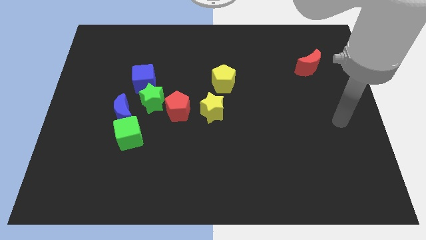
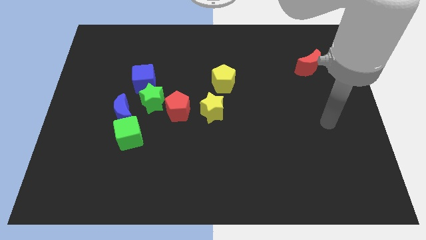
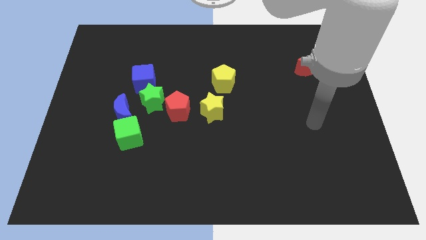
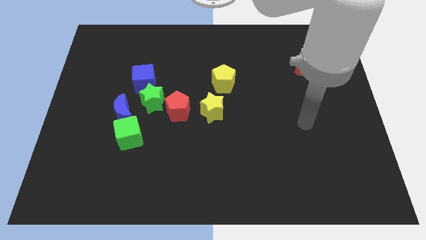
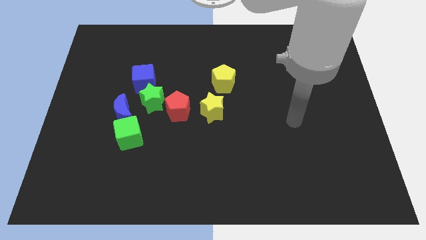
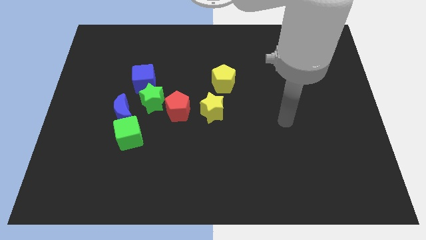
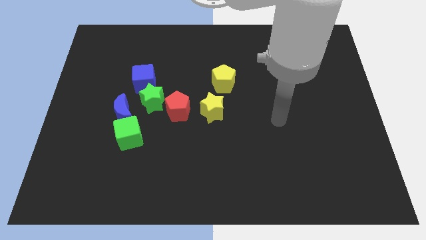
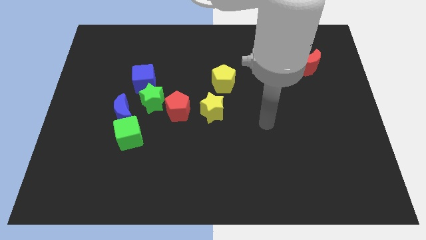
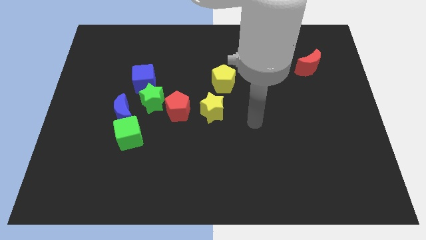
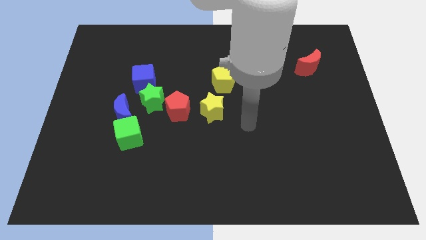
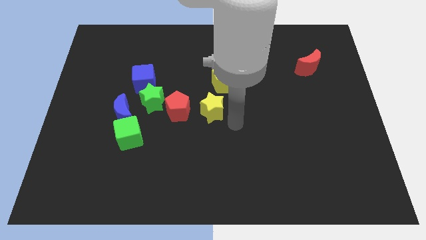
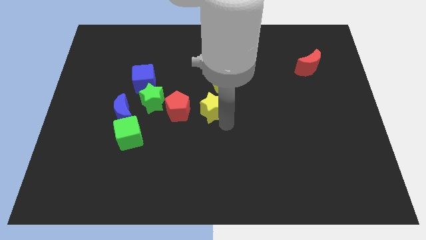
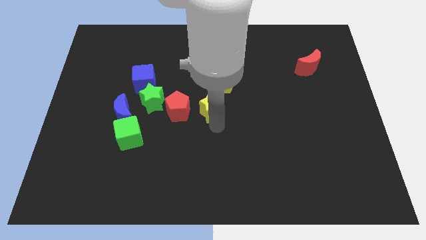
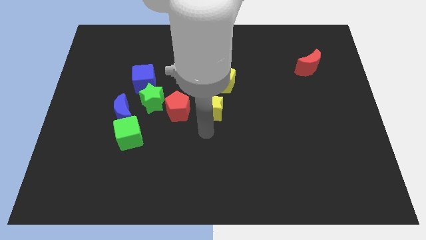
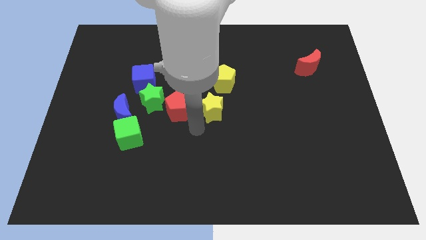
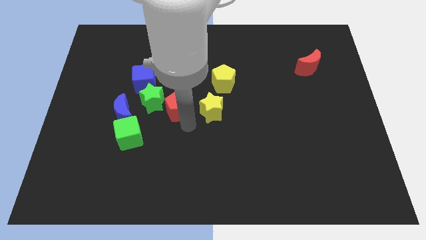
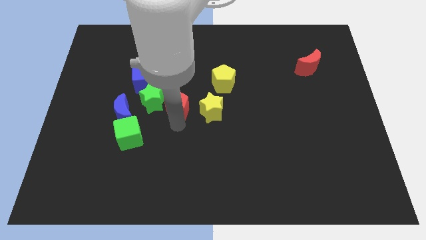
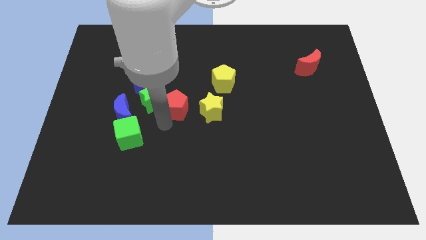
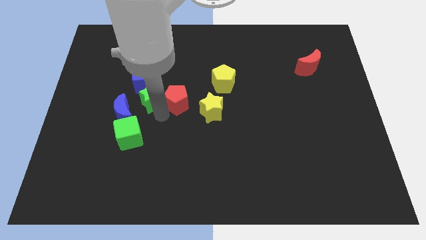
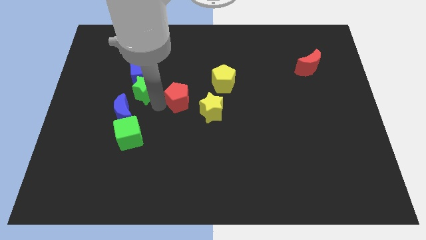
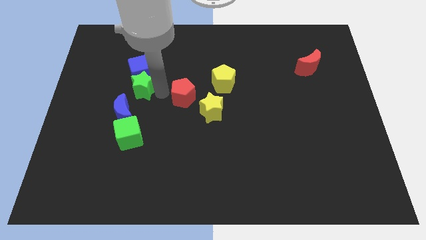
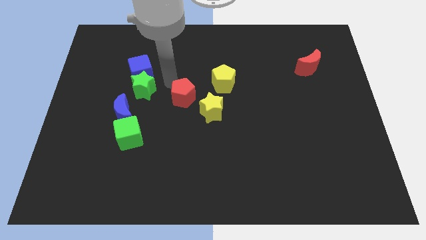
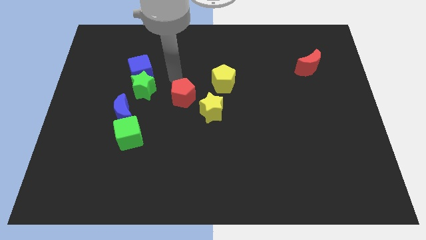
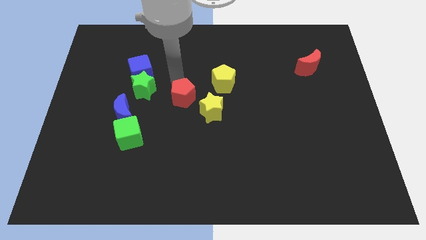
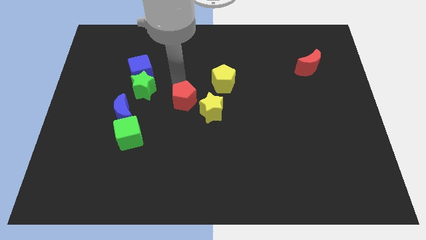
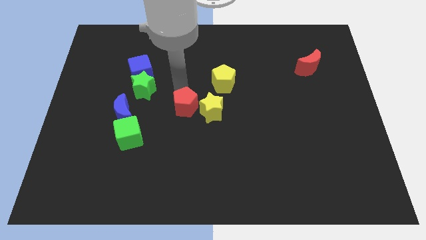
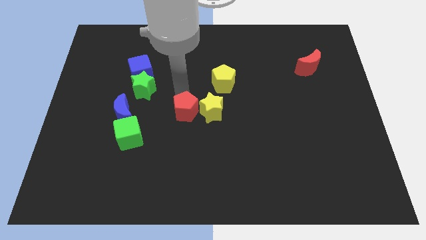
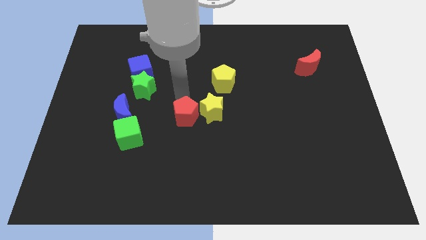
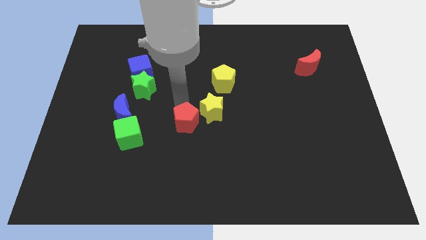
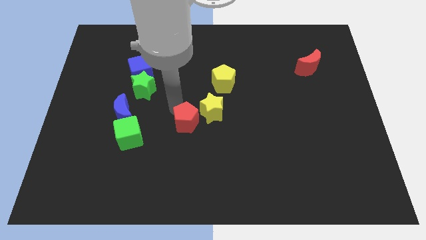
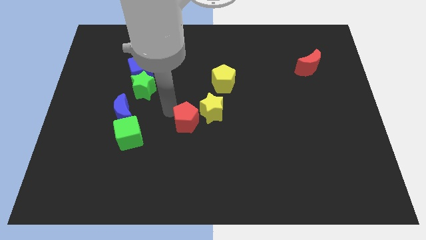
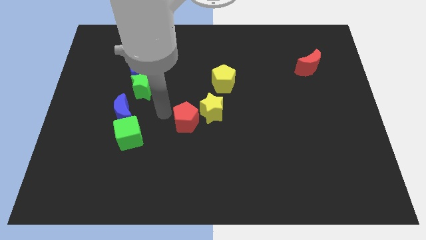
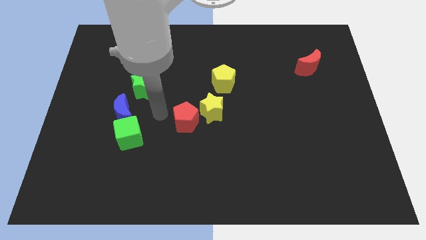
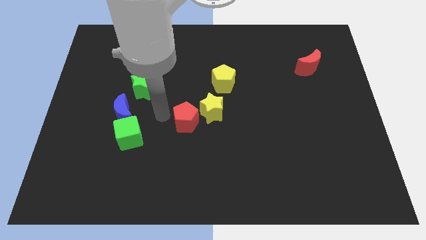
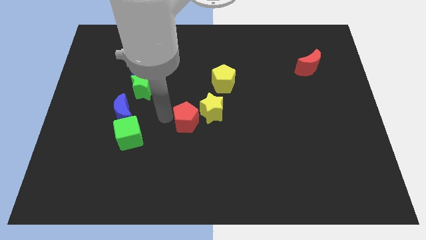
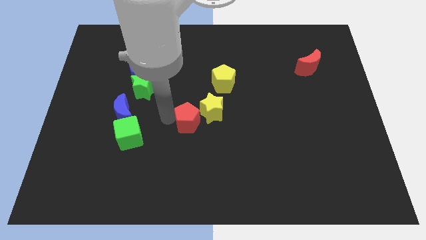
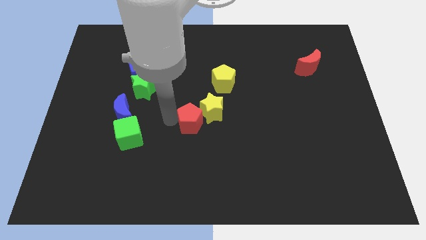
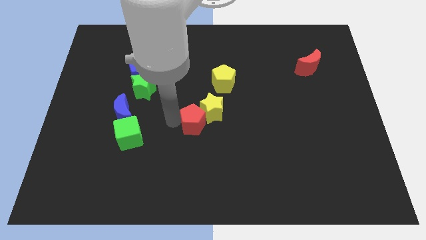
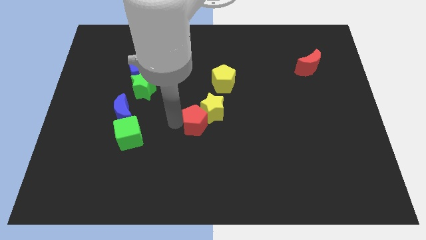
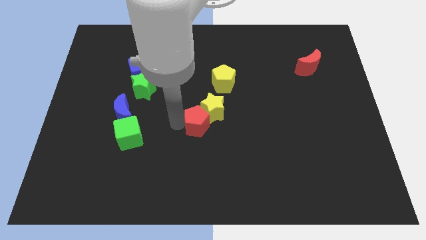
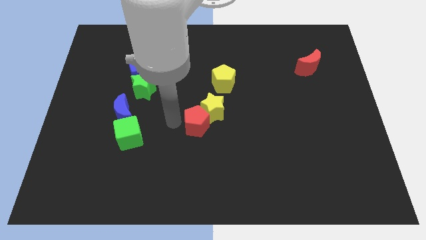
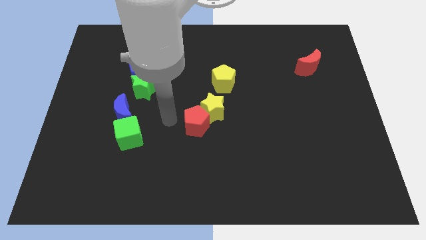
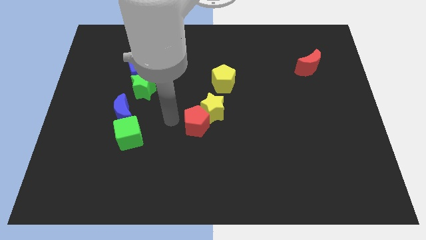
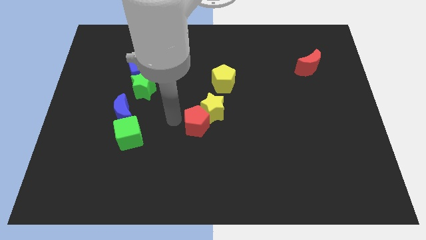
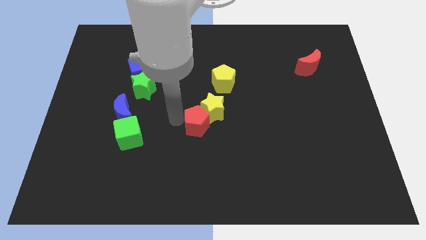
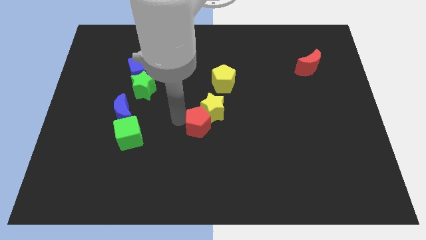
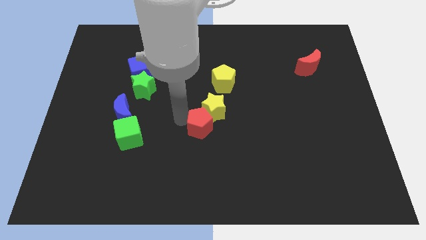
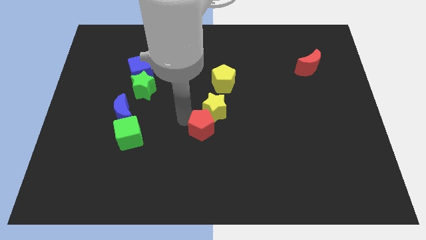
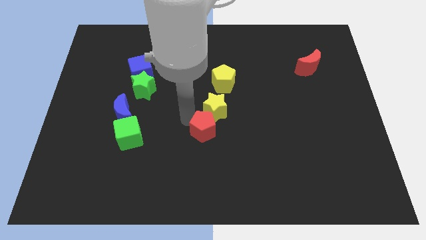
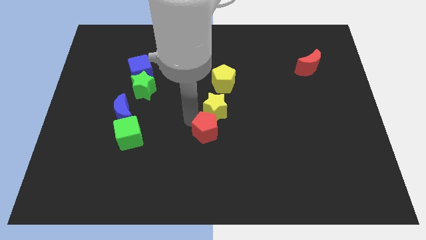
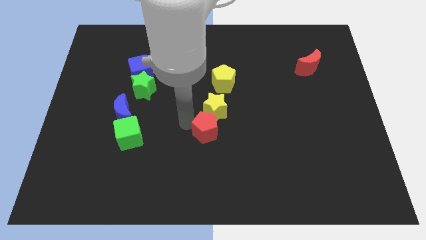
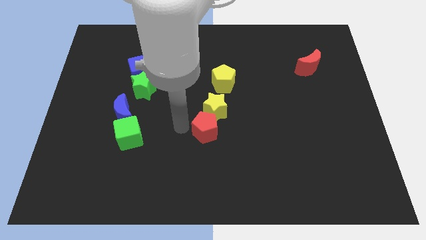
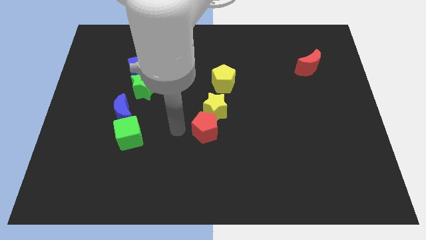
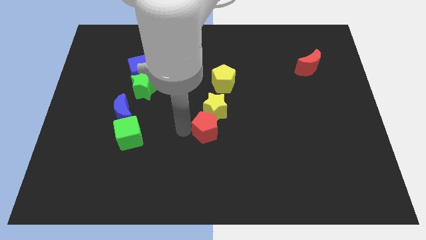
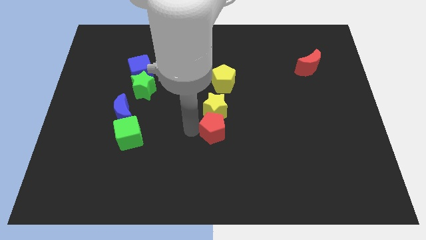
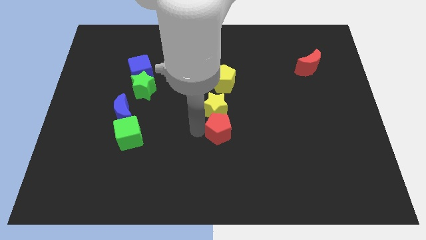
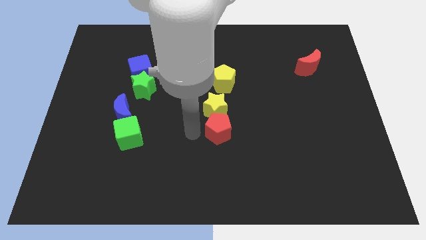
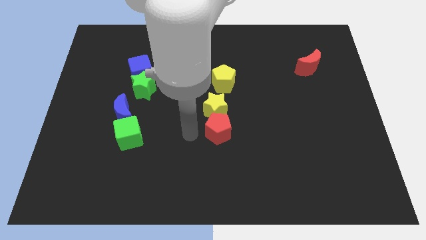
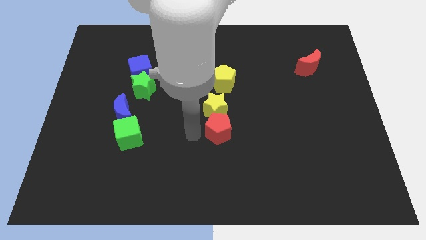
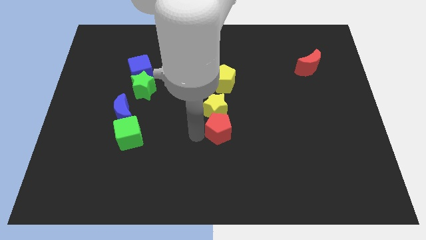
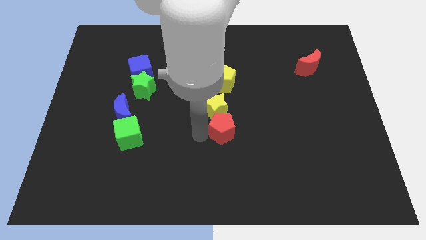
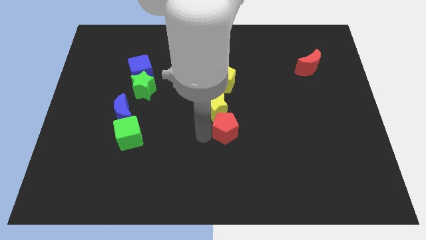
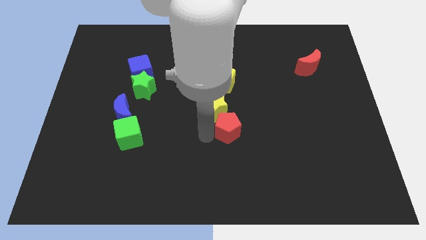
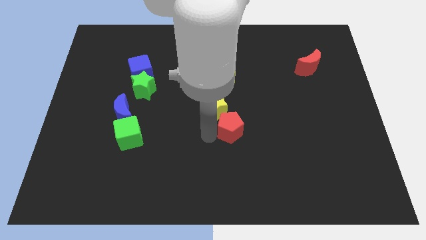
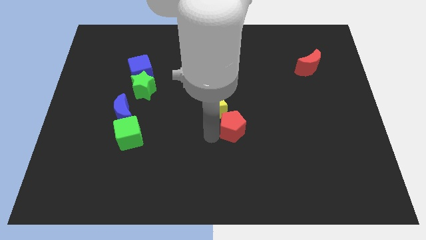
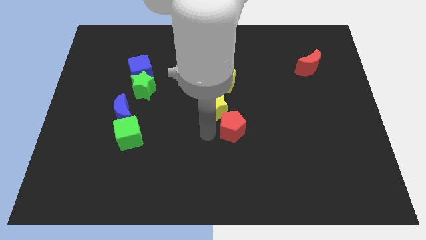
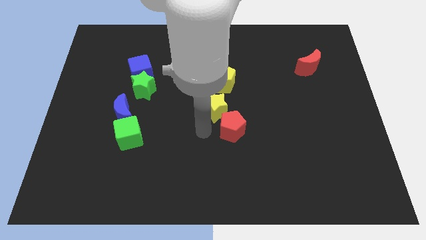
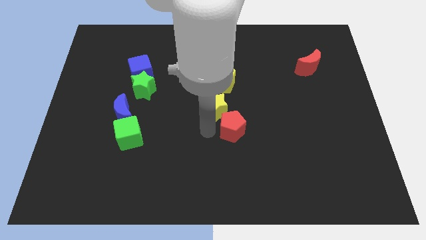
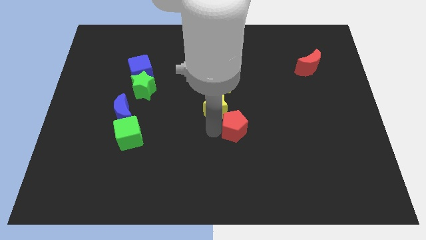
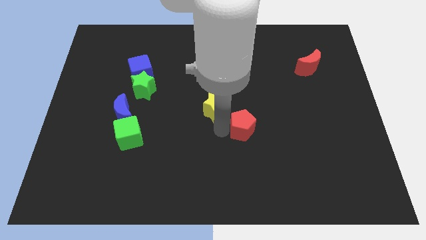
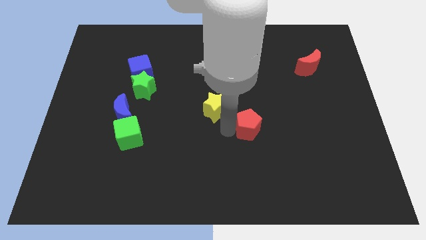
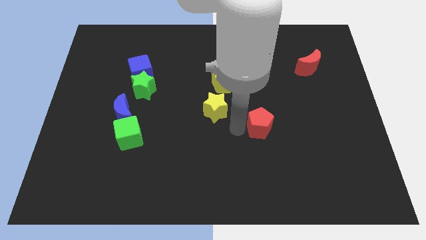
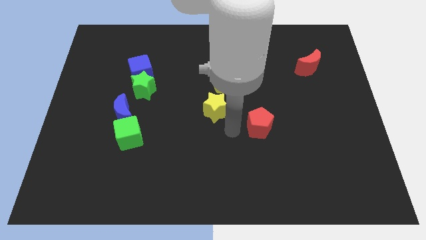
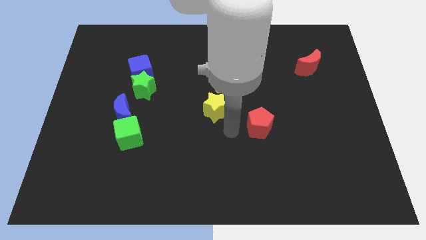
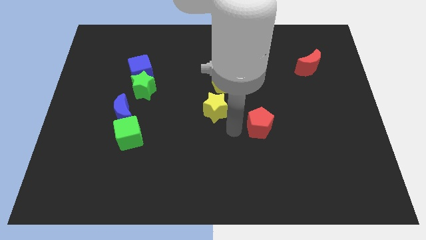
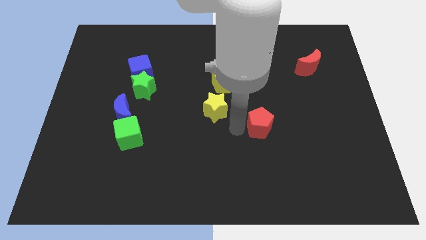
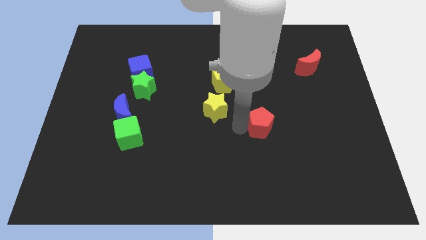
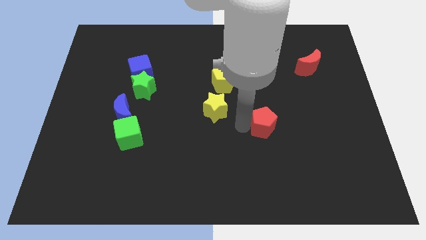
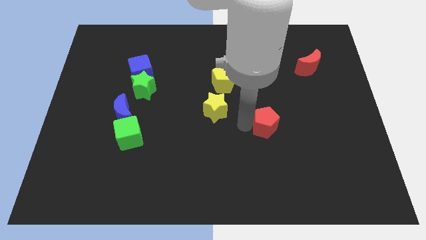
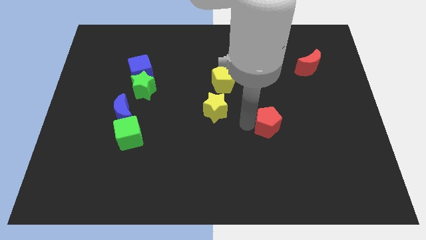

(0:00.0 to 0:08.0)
slide the red pentagon to the right
